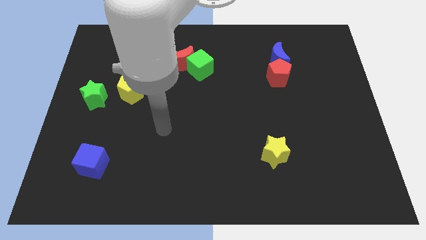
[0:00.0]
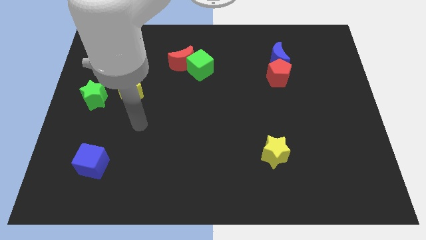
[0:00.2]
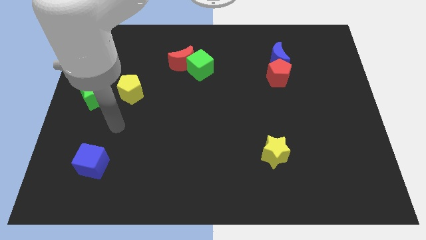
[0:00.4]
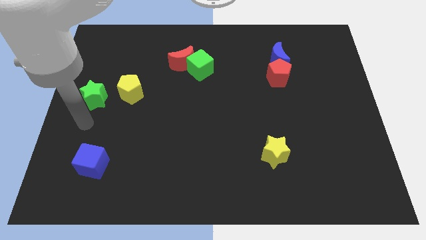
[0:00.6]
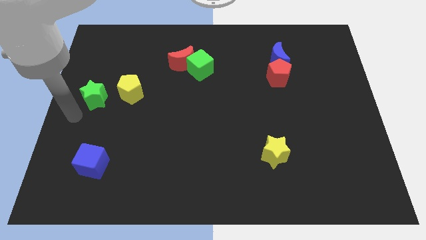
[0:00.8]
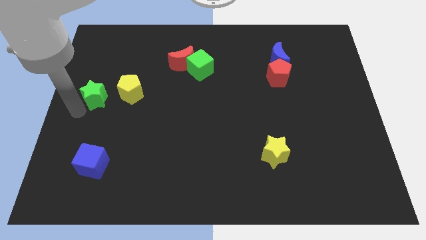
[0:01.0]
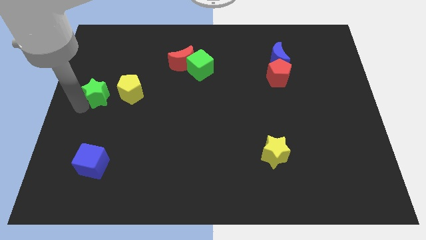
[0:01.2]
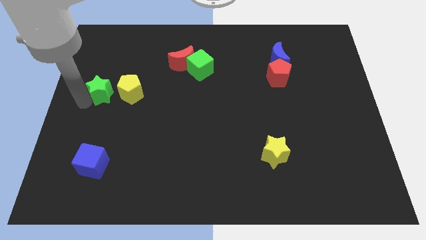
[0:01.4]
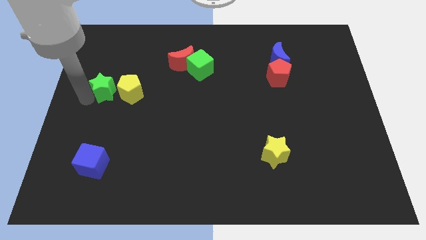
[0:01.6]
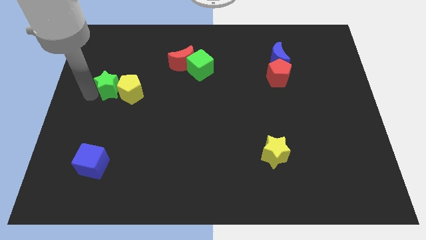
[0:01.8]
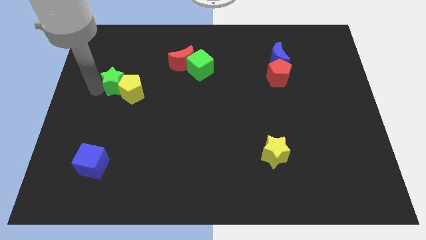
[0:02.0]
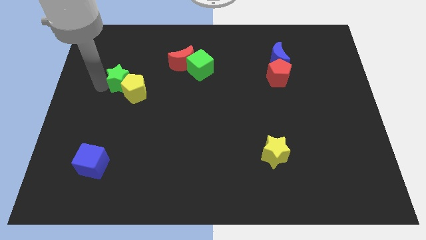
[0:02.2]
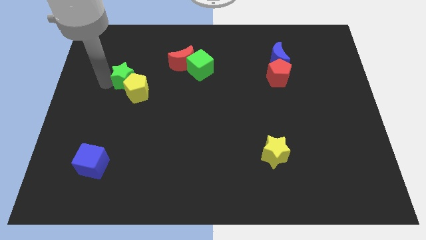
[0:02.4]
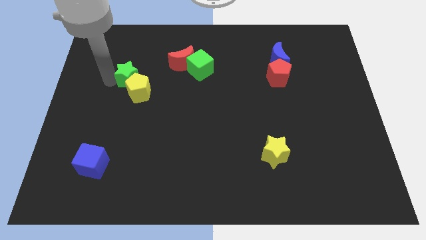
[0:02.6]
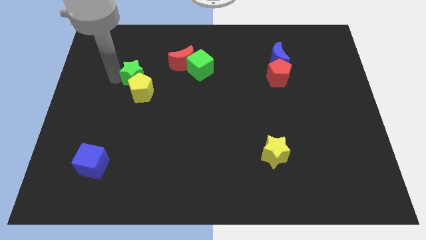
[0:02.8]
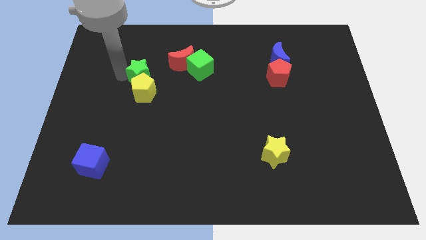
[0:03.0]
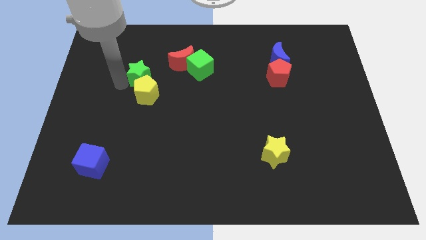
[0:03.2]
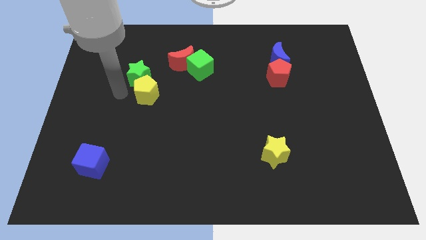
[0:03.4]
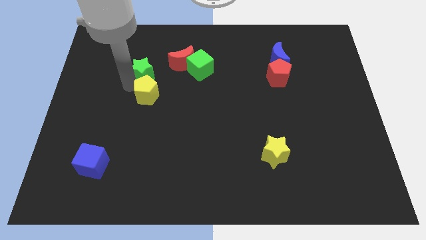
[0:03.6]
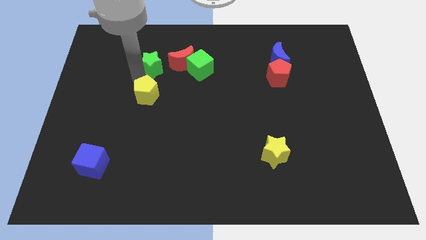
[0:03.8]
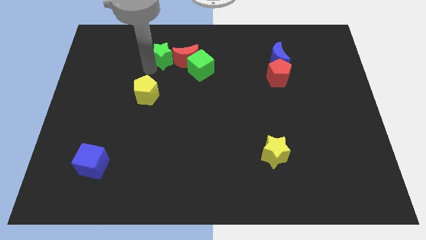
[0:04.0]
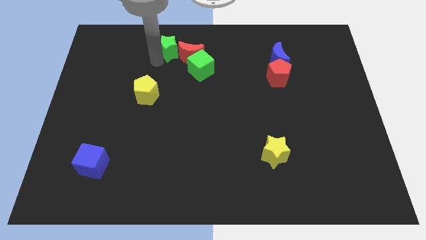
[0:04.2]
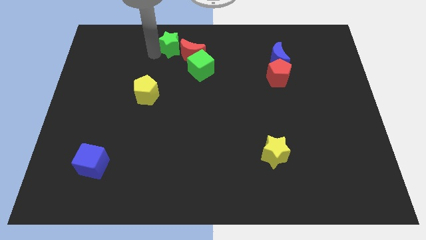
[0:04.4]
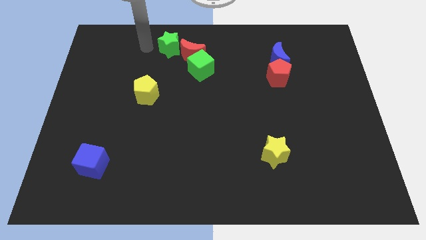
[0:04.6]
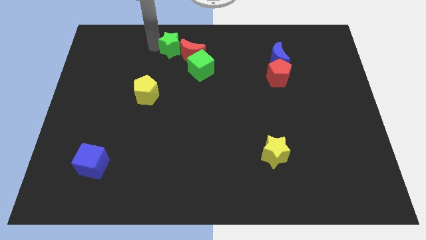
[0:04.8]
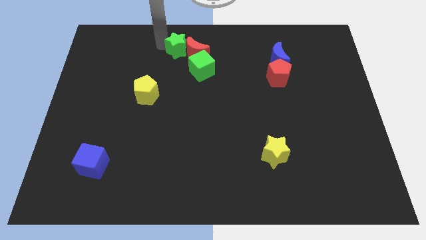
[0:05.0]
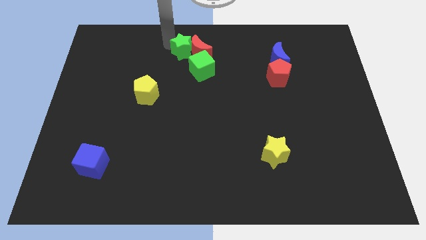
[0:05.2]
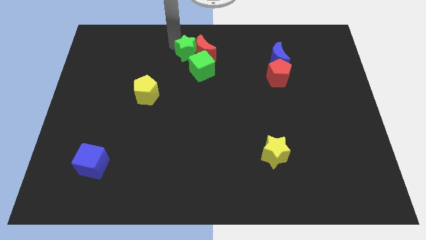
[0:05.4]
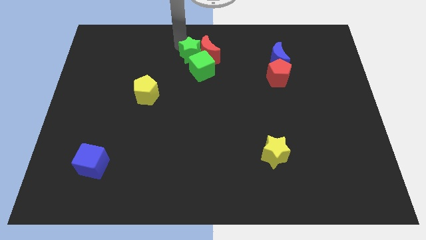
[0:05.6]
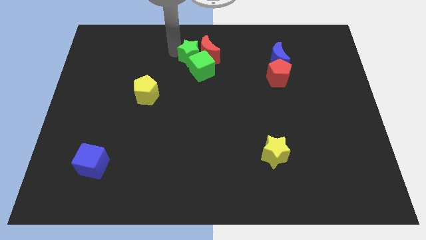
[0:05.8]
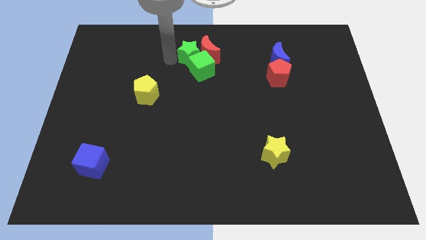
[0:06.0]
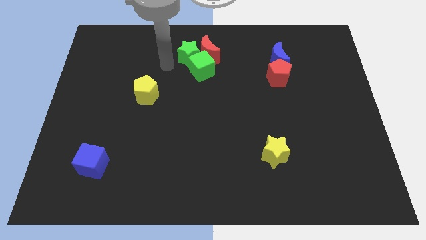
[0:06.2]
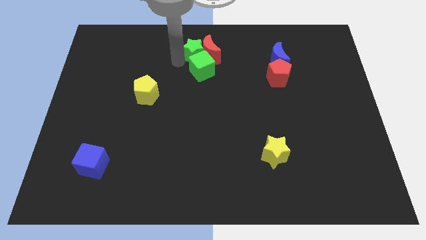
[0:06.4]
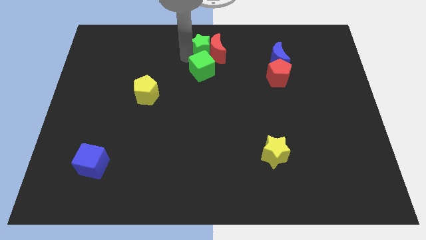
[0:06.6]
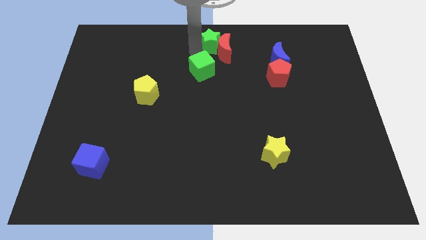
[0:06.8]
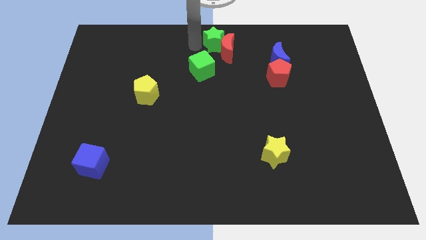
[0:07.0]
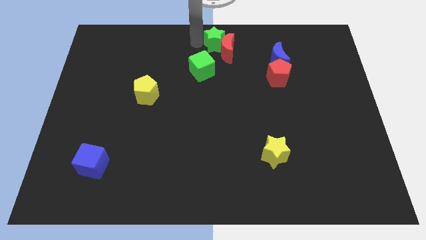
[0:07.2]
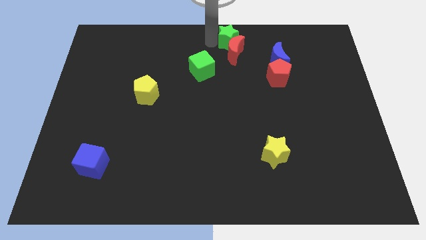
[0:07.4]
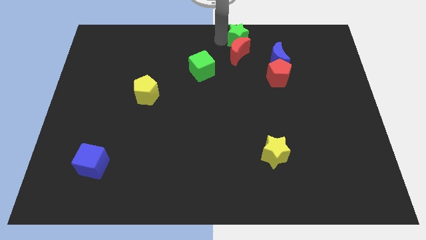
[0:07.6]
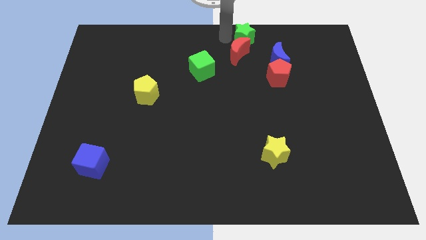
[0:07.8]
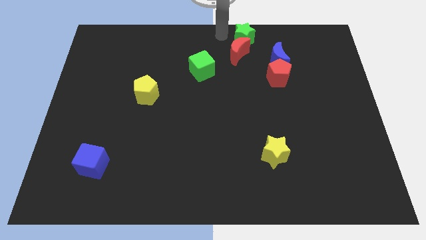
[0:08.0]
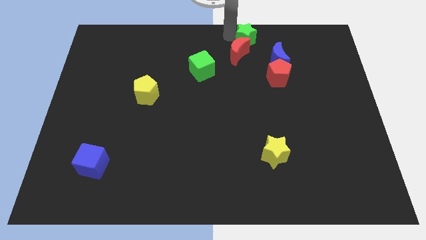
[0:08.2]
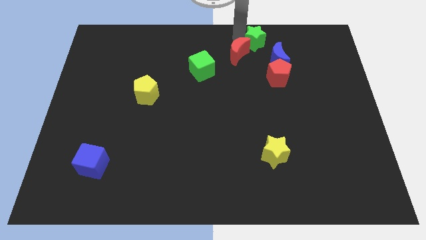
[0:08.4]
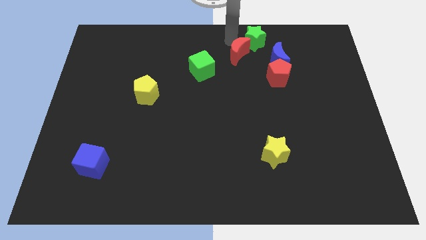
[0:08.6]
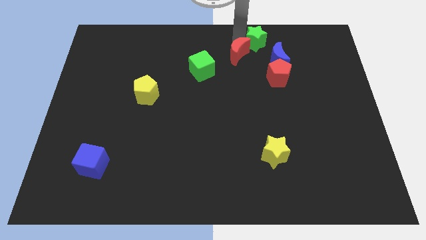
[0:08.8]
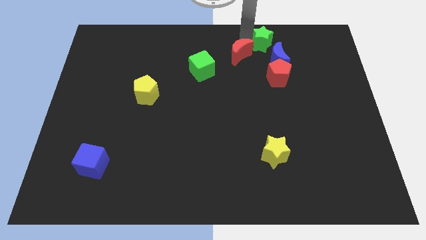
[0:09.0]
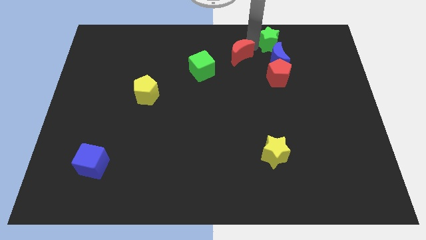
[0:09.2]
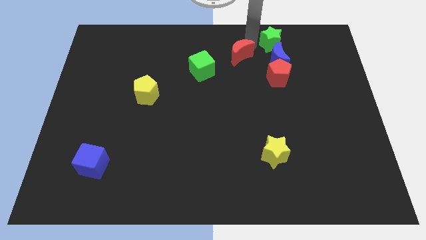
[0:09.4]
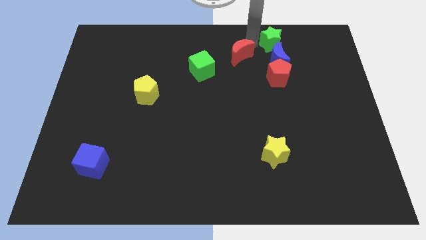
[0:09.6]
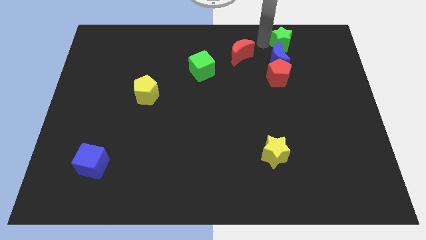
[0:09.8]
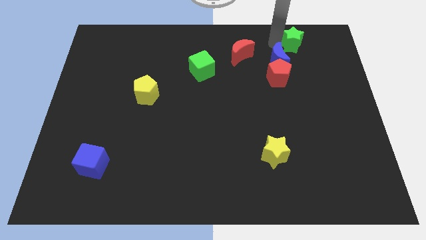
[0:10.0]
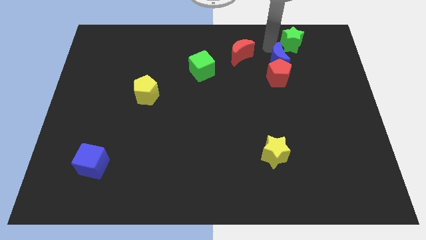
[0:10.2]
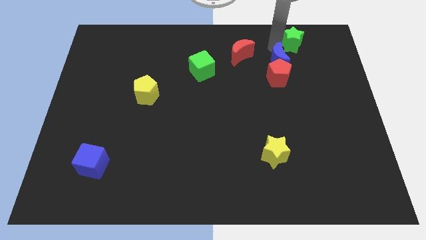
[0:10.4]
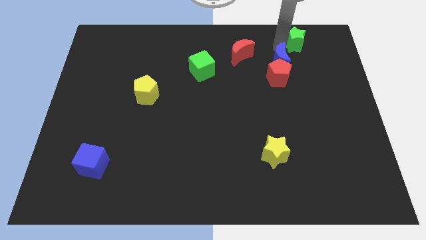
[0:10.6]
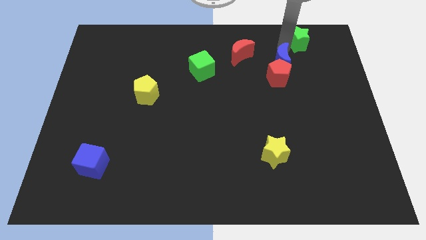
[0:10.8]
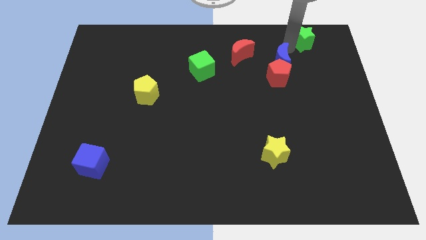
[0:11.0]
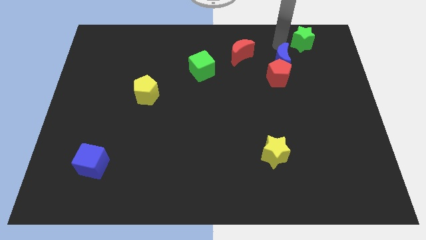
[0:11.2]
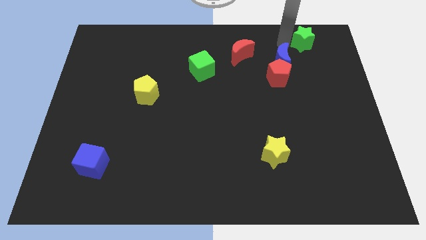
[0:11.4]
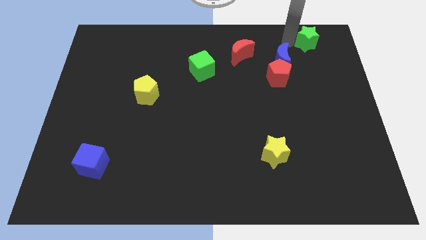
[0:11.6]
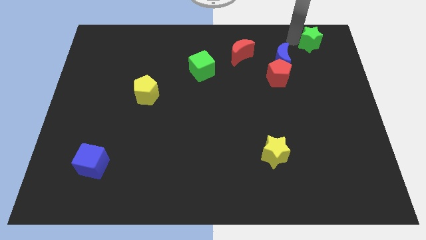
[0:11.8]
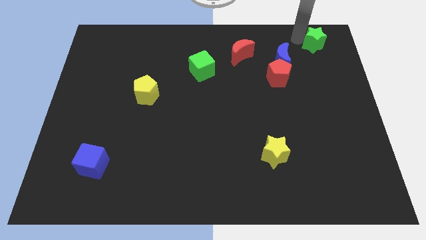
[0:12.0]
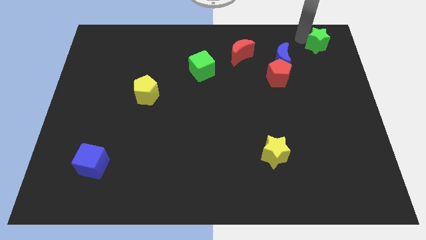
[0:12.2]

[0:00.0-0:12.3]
move the green star to the top right corner
